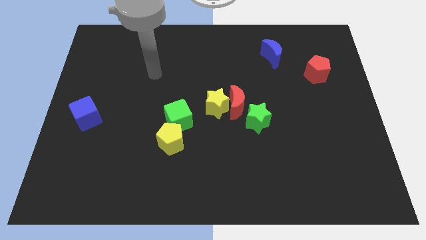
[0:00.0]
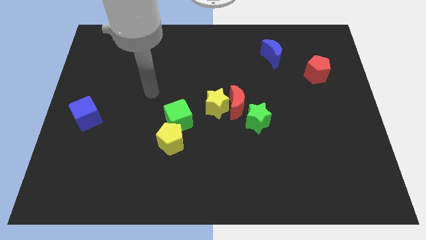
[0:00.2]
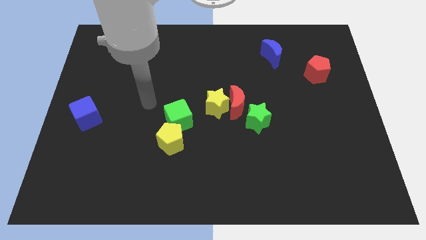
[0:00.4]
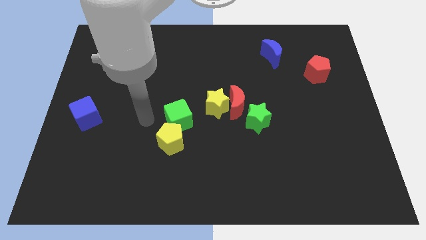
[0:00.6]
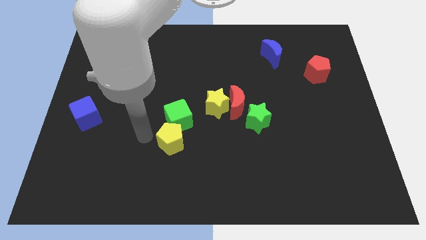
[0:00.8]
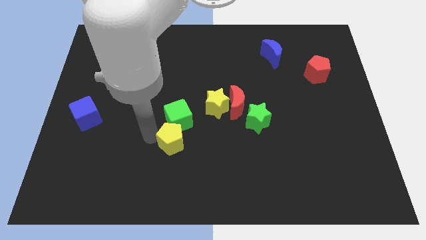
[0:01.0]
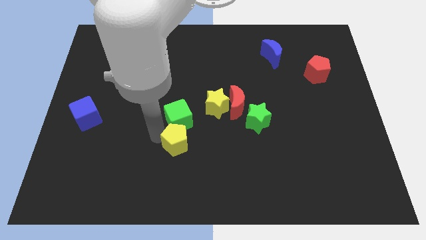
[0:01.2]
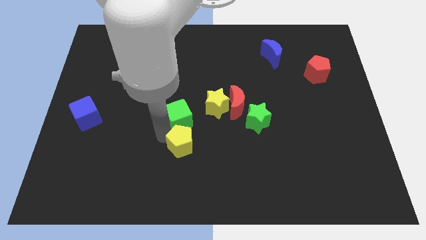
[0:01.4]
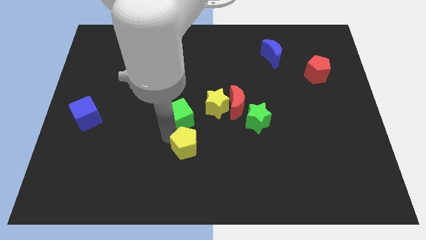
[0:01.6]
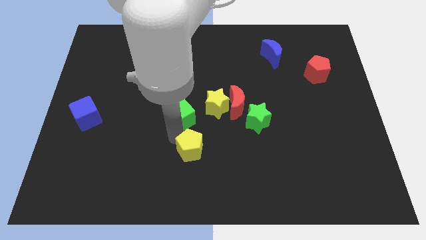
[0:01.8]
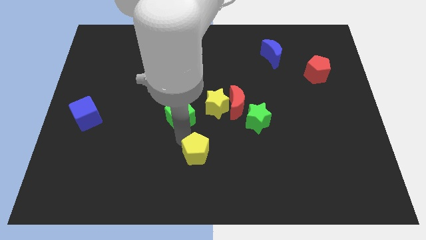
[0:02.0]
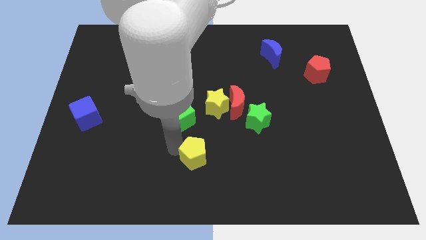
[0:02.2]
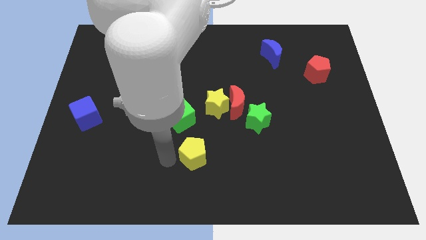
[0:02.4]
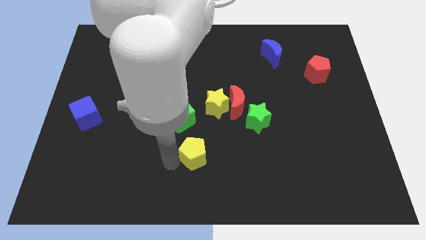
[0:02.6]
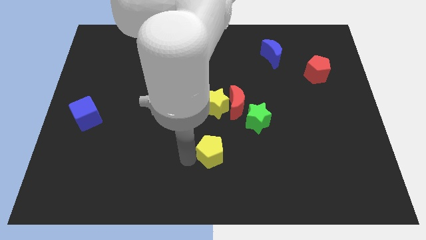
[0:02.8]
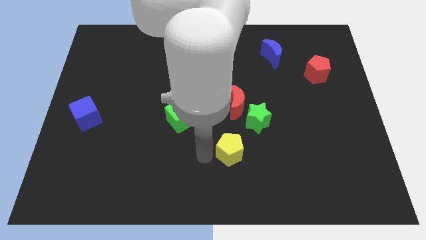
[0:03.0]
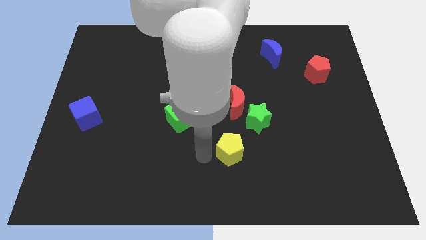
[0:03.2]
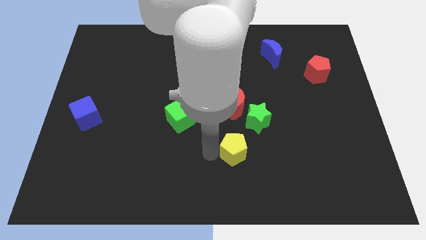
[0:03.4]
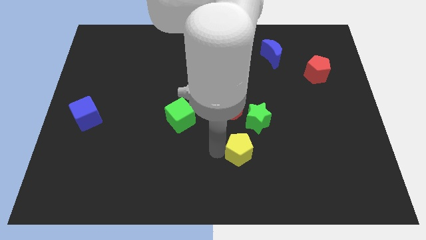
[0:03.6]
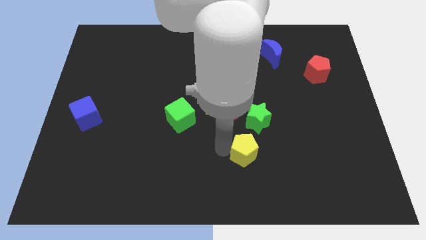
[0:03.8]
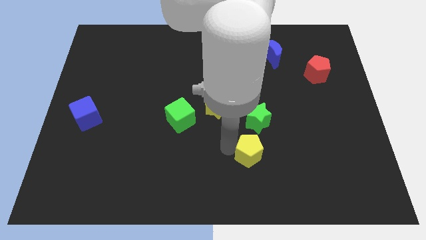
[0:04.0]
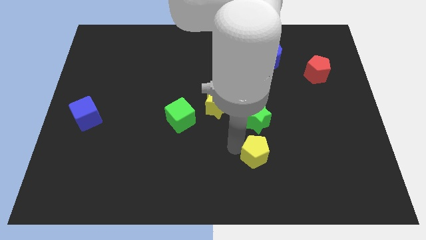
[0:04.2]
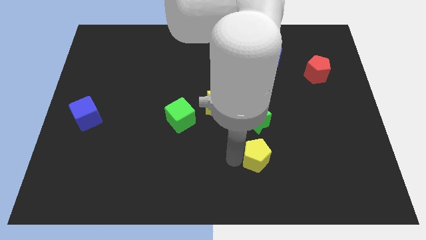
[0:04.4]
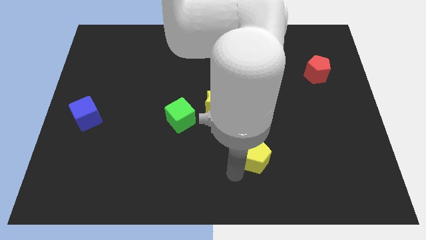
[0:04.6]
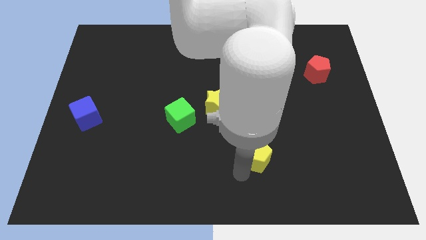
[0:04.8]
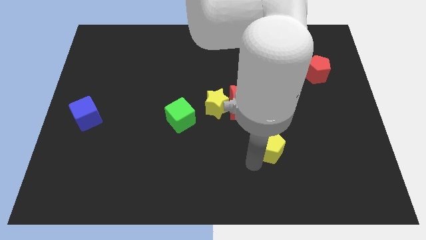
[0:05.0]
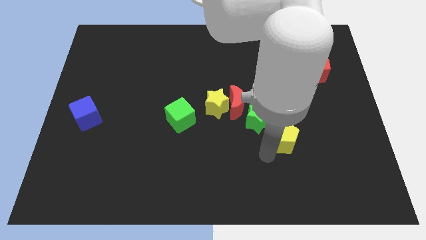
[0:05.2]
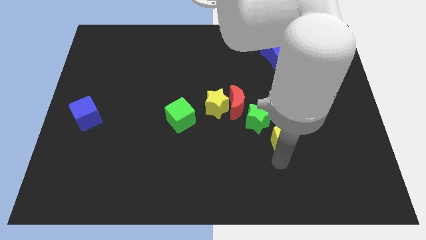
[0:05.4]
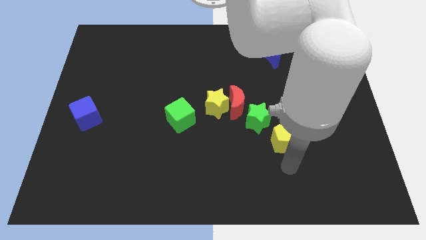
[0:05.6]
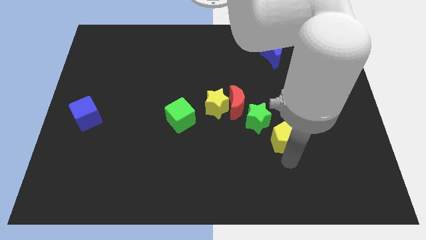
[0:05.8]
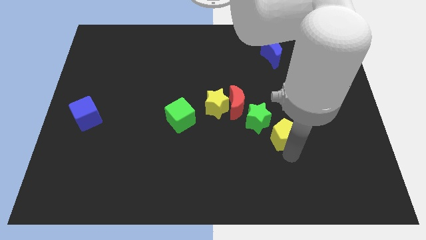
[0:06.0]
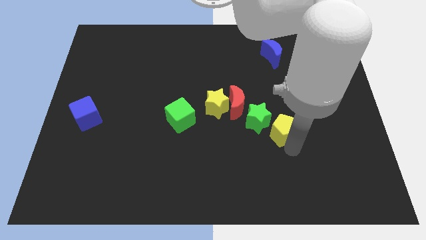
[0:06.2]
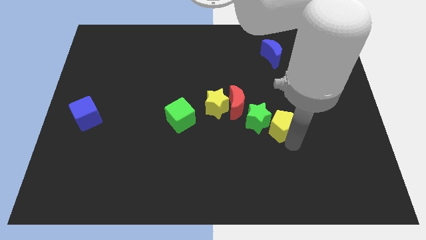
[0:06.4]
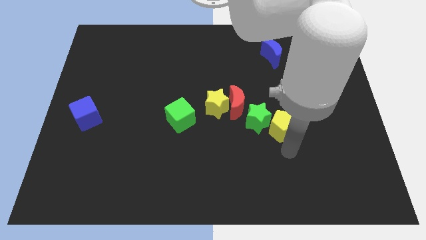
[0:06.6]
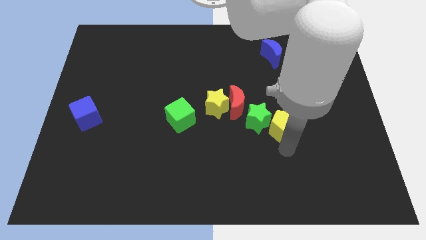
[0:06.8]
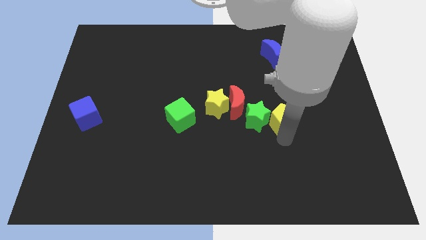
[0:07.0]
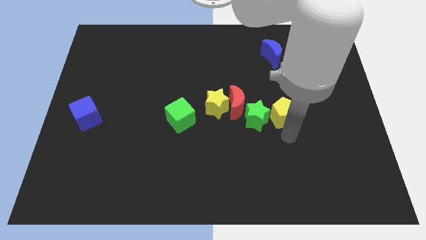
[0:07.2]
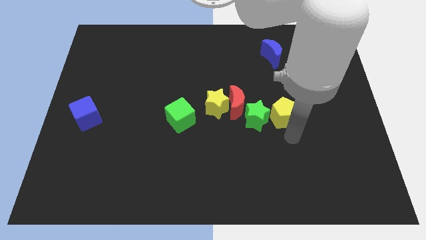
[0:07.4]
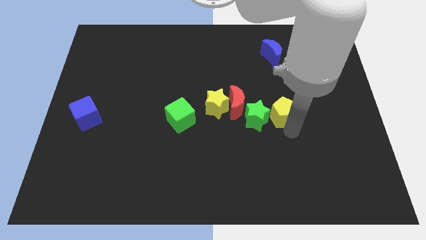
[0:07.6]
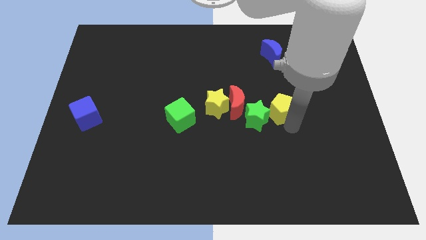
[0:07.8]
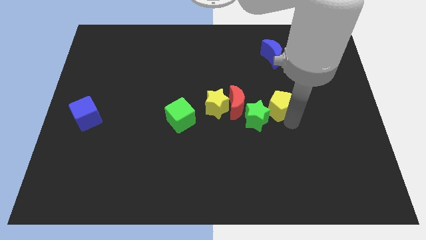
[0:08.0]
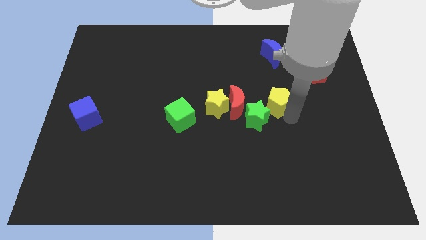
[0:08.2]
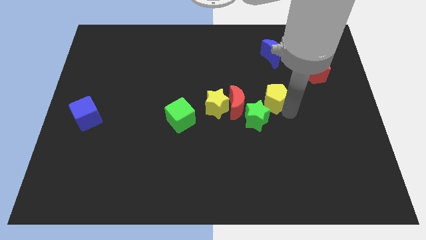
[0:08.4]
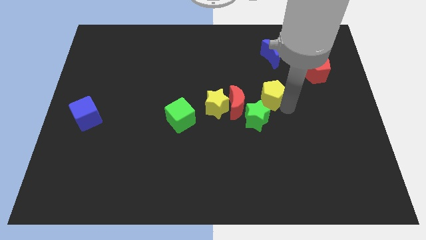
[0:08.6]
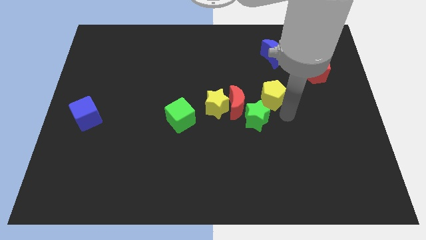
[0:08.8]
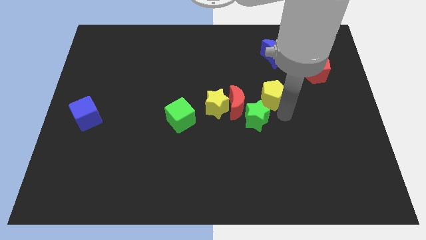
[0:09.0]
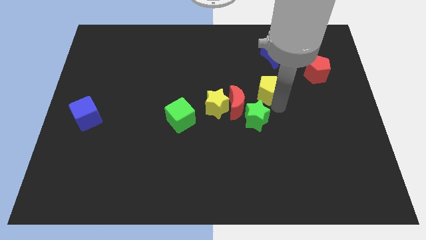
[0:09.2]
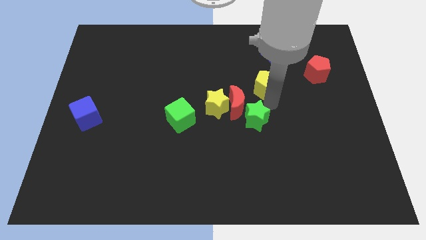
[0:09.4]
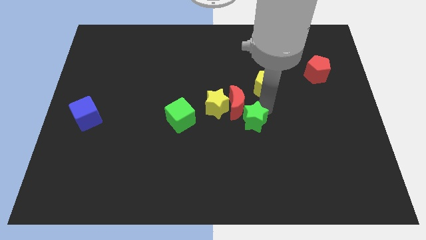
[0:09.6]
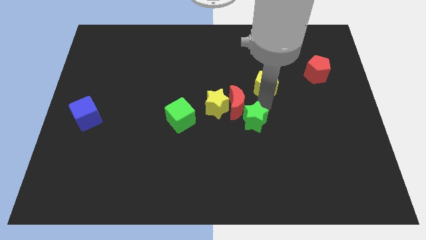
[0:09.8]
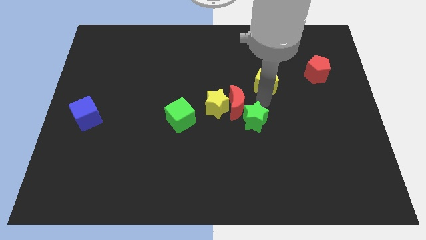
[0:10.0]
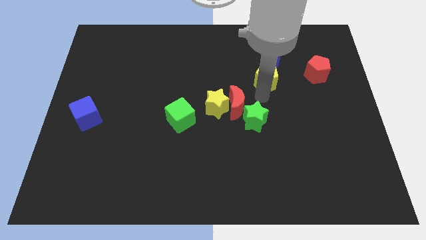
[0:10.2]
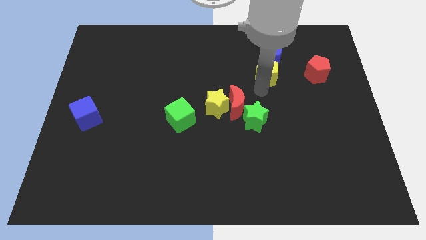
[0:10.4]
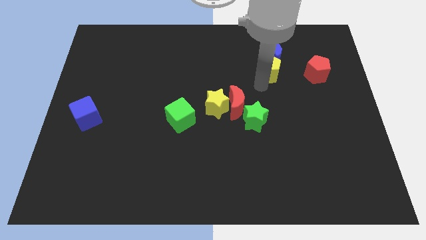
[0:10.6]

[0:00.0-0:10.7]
move the yellow pentagon close to the blue moon

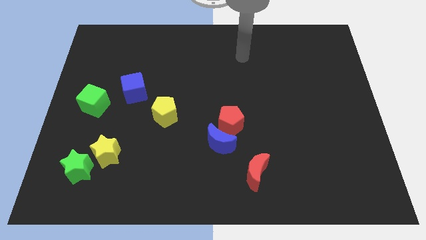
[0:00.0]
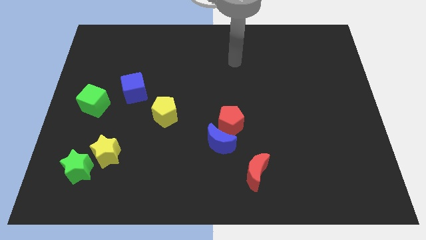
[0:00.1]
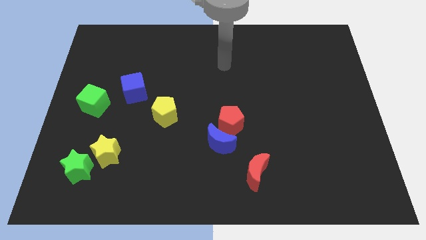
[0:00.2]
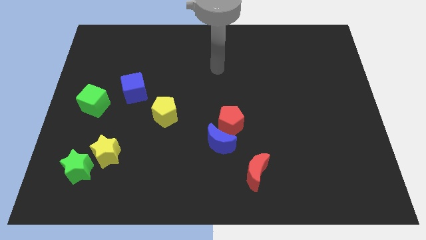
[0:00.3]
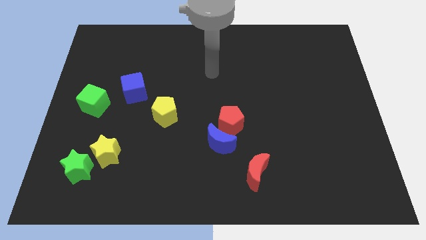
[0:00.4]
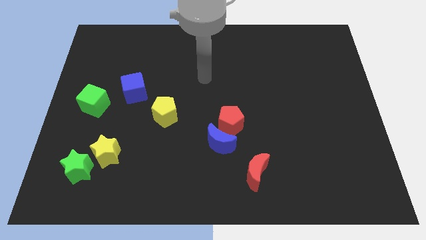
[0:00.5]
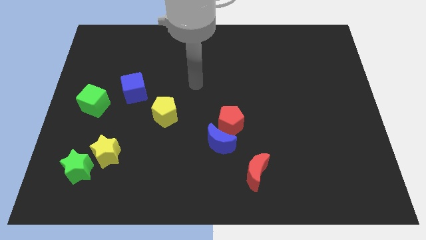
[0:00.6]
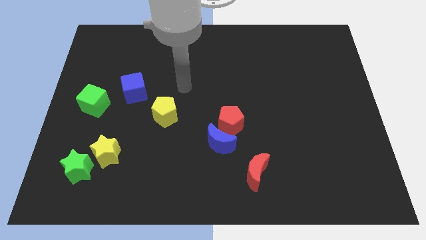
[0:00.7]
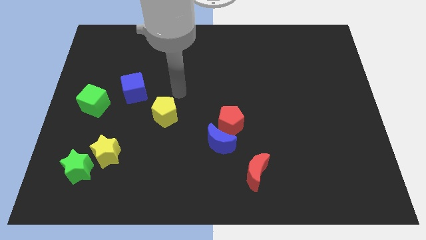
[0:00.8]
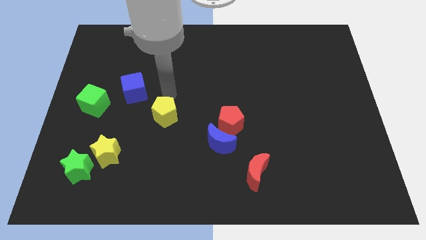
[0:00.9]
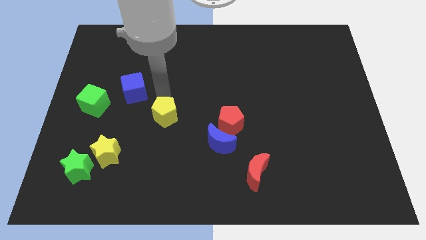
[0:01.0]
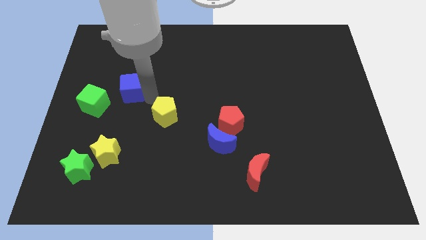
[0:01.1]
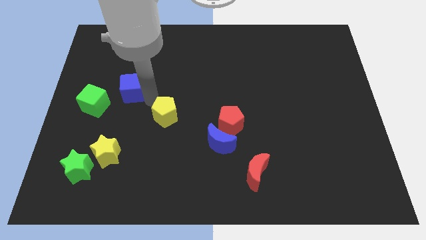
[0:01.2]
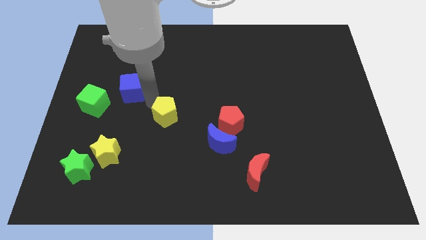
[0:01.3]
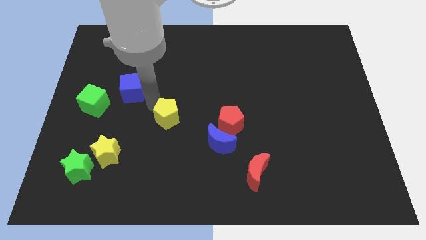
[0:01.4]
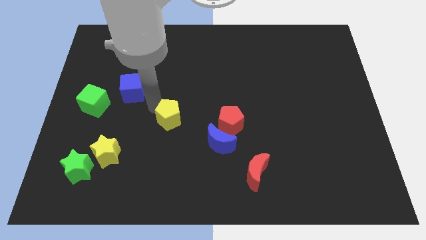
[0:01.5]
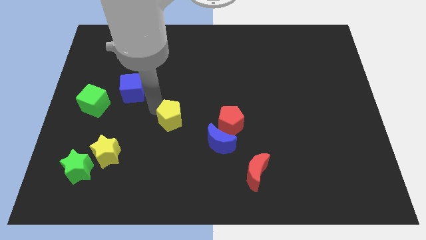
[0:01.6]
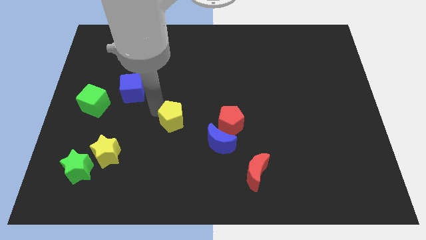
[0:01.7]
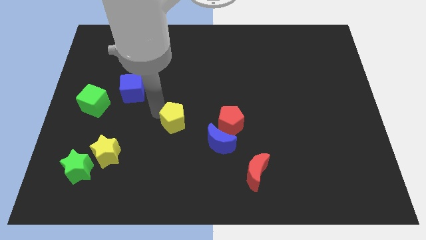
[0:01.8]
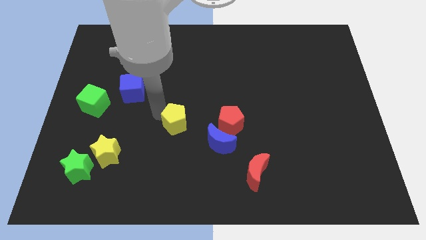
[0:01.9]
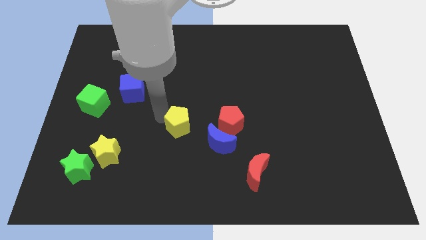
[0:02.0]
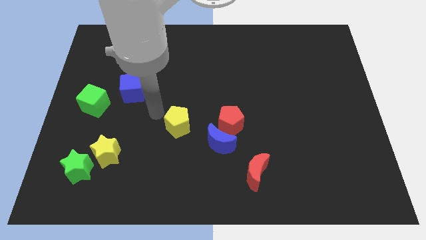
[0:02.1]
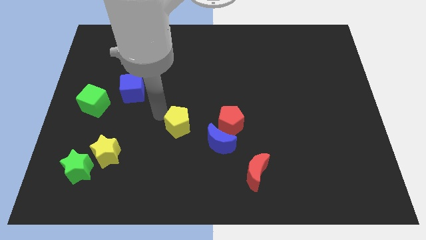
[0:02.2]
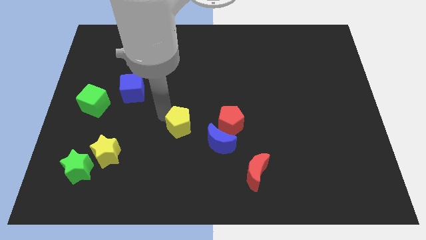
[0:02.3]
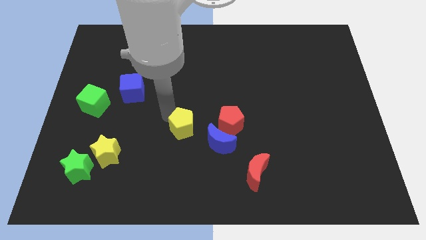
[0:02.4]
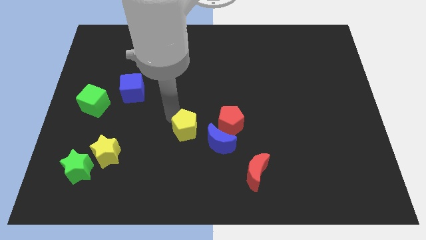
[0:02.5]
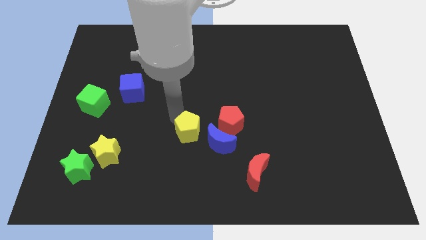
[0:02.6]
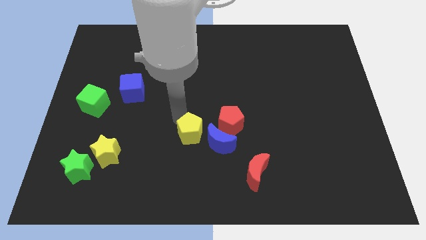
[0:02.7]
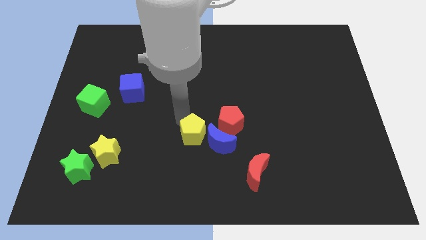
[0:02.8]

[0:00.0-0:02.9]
slide the yellow pentagon next to the blue moon
